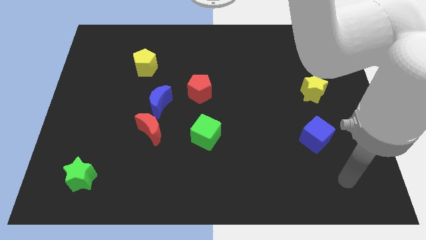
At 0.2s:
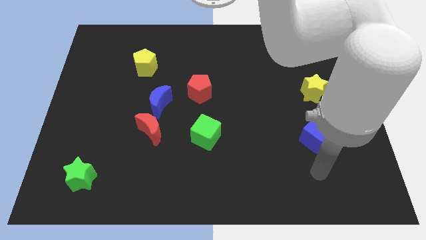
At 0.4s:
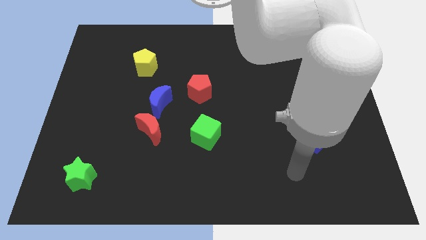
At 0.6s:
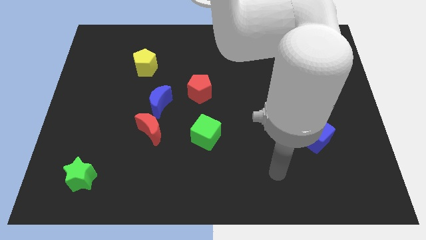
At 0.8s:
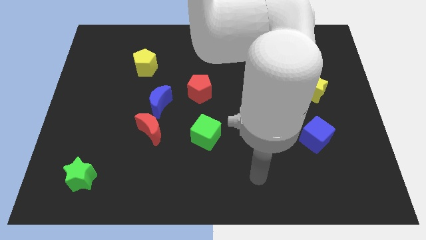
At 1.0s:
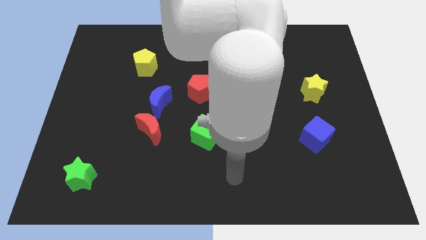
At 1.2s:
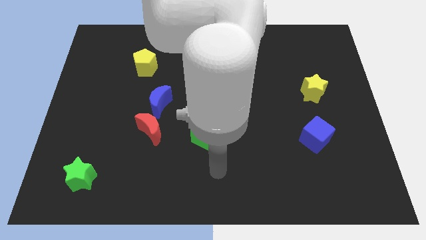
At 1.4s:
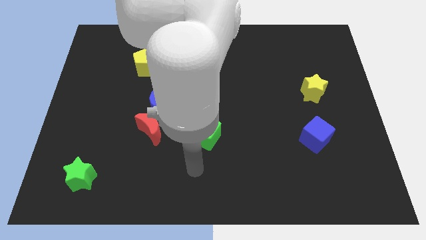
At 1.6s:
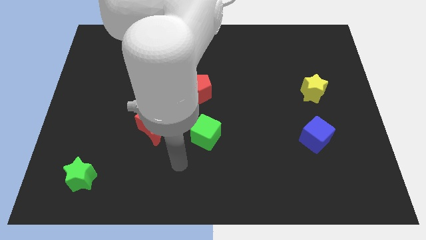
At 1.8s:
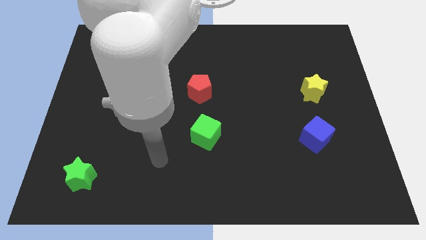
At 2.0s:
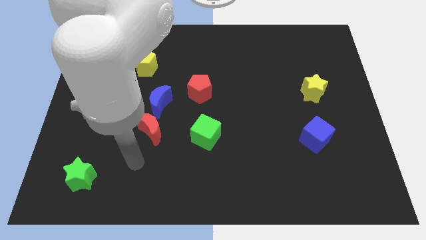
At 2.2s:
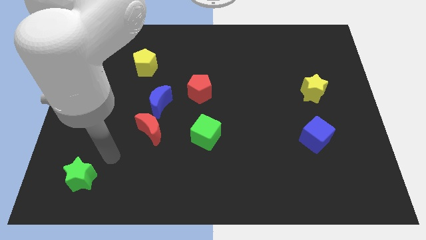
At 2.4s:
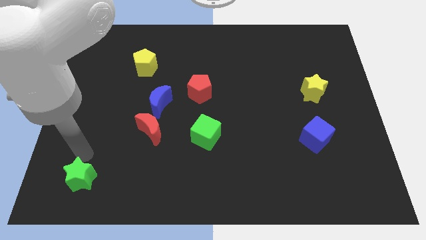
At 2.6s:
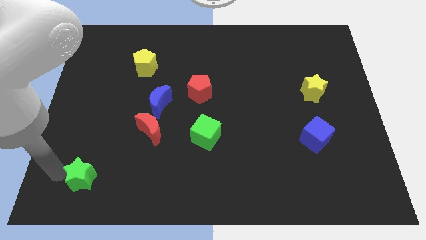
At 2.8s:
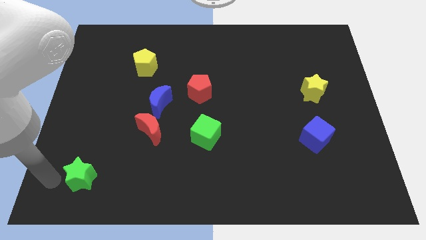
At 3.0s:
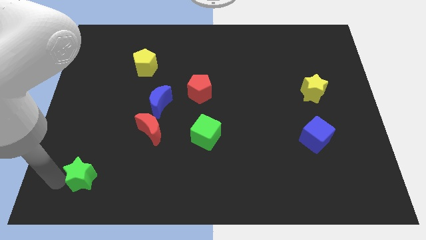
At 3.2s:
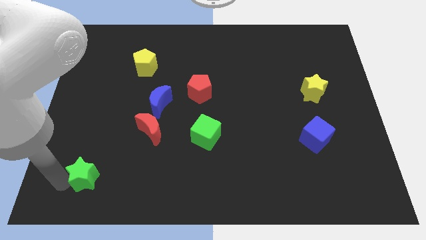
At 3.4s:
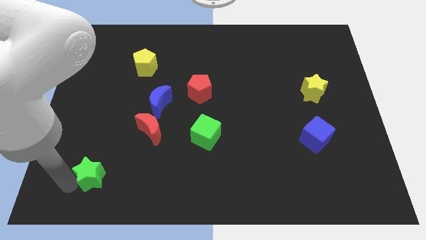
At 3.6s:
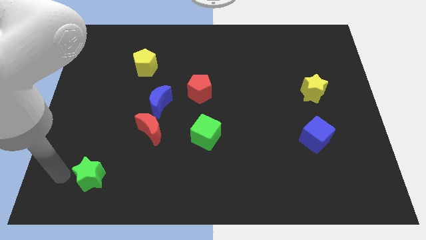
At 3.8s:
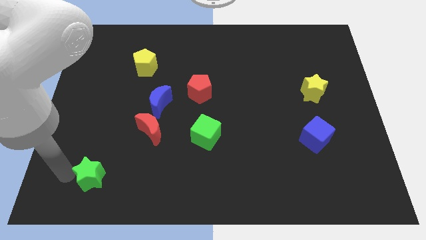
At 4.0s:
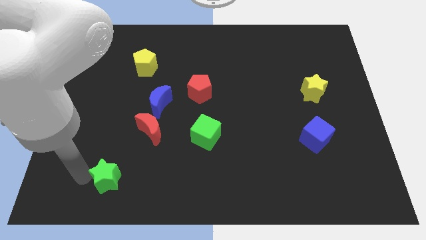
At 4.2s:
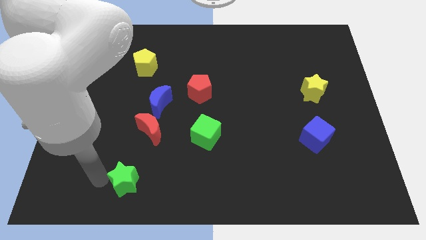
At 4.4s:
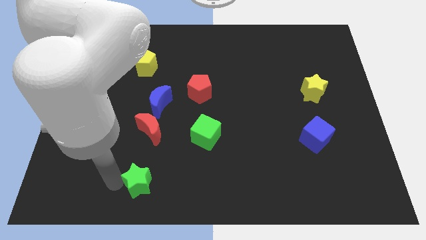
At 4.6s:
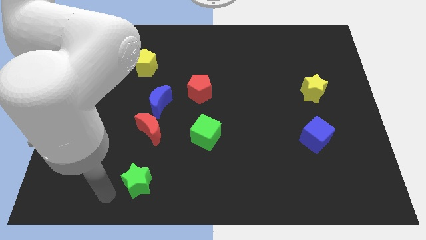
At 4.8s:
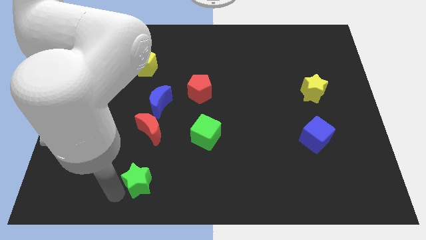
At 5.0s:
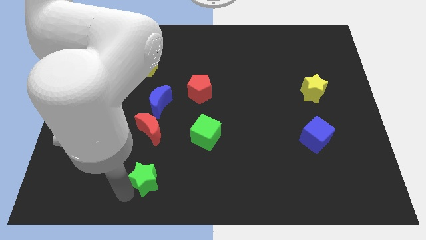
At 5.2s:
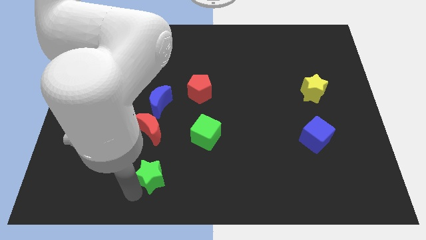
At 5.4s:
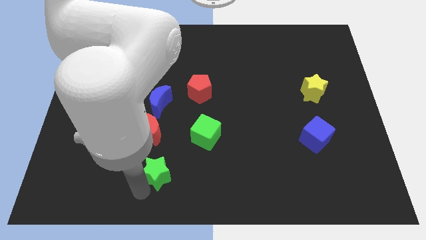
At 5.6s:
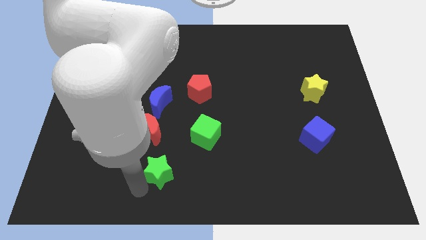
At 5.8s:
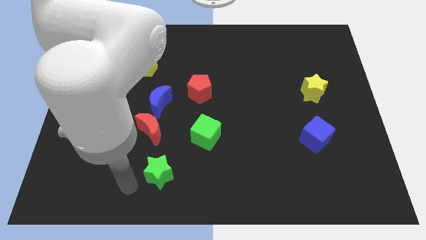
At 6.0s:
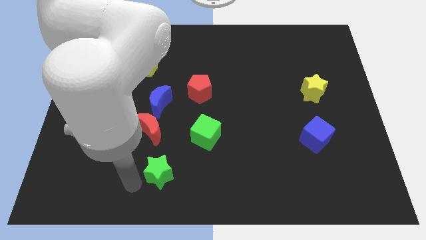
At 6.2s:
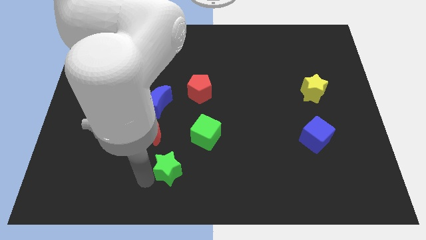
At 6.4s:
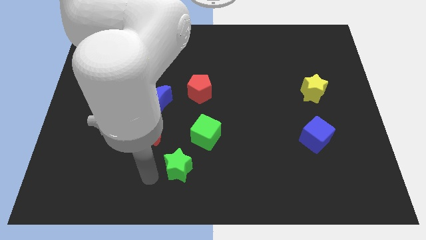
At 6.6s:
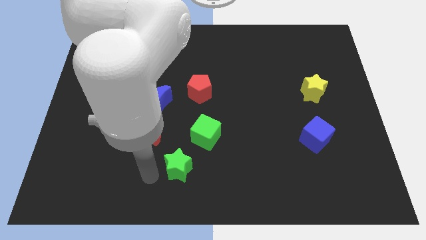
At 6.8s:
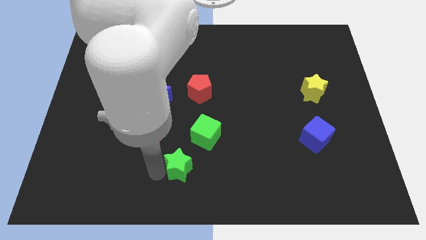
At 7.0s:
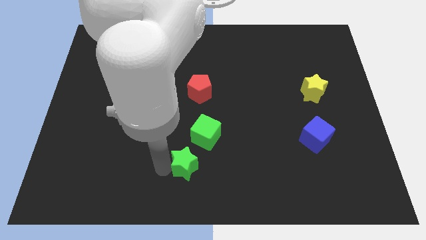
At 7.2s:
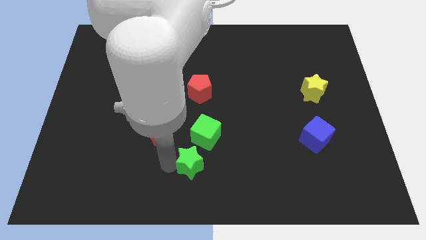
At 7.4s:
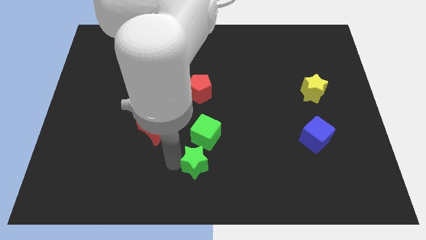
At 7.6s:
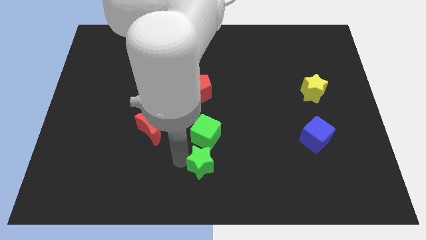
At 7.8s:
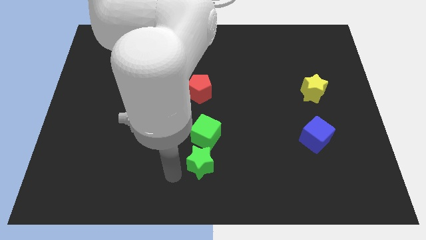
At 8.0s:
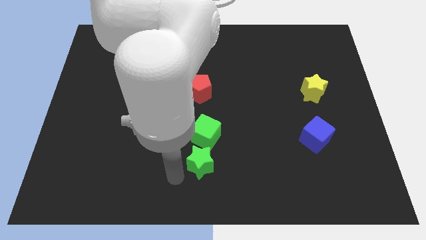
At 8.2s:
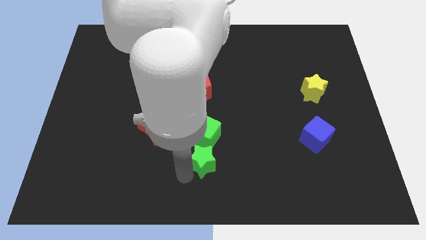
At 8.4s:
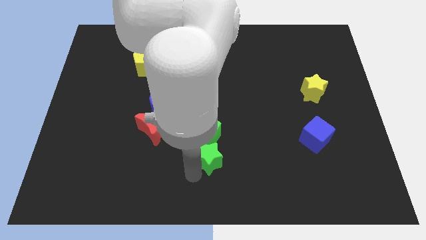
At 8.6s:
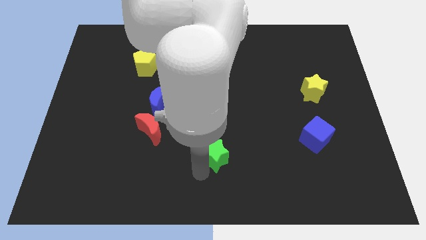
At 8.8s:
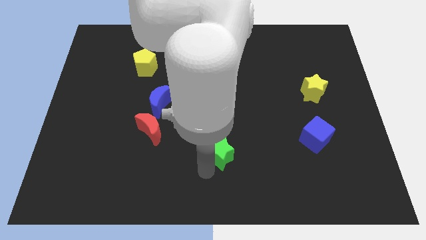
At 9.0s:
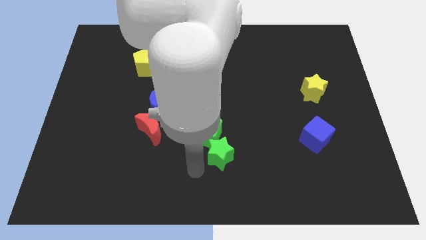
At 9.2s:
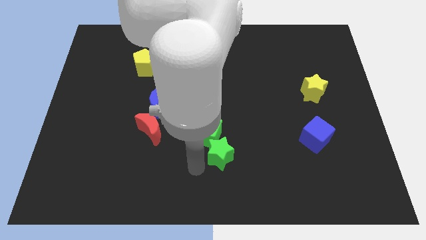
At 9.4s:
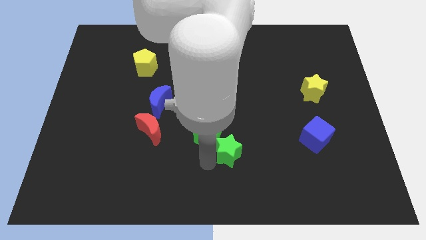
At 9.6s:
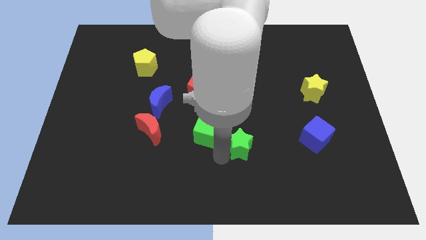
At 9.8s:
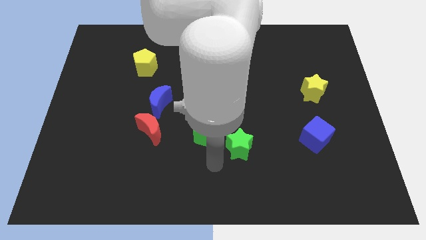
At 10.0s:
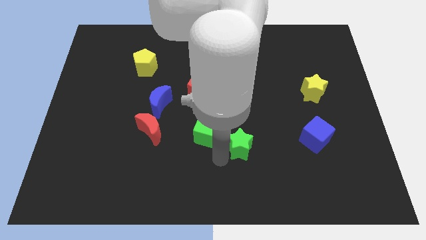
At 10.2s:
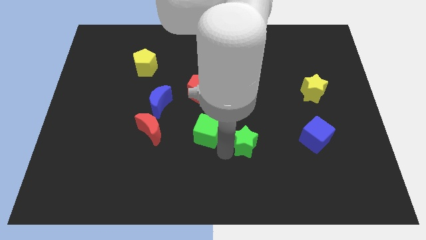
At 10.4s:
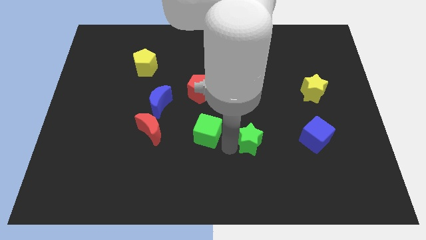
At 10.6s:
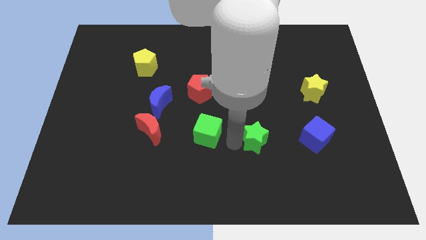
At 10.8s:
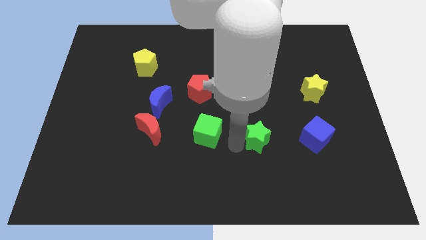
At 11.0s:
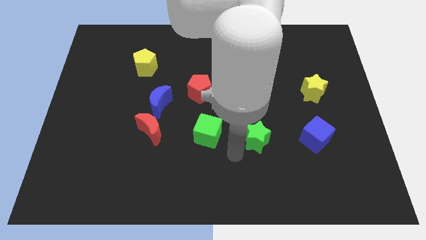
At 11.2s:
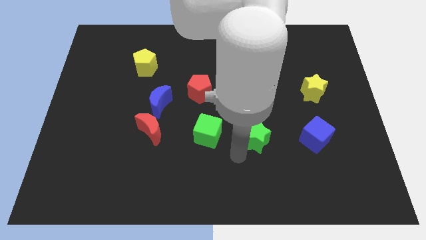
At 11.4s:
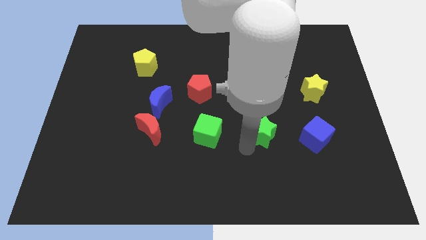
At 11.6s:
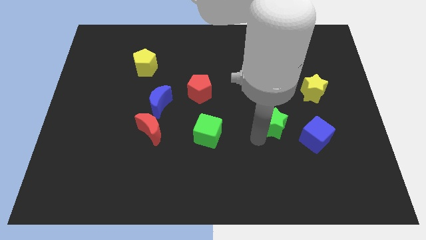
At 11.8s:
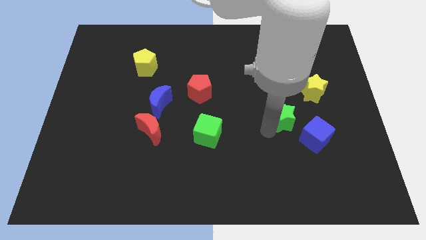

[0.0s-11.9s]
push the green star to the bottom left side of the yellow star
